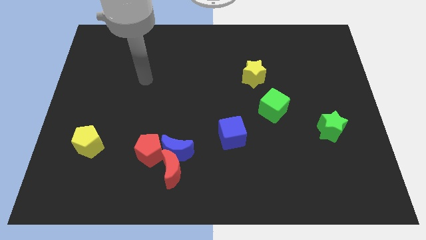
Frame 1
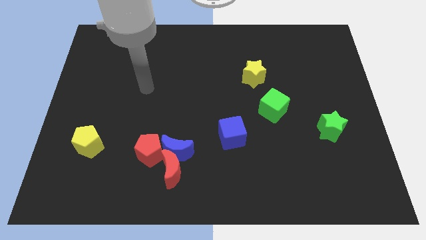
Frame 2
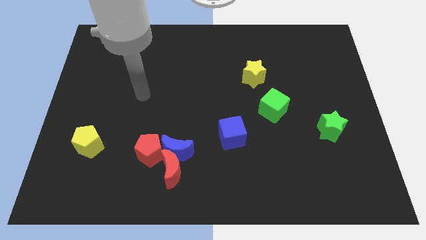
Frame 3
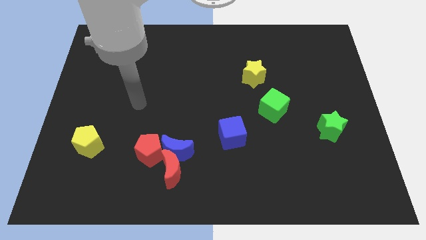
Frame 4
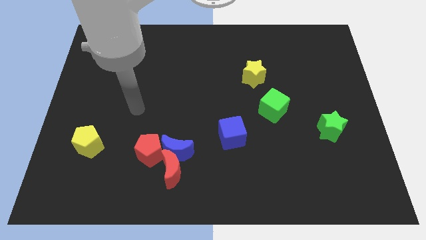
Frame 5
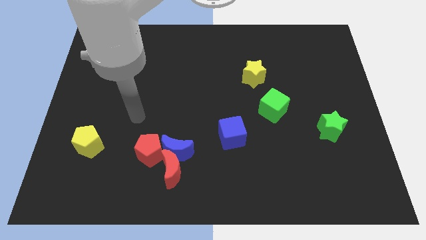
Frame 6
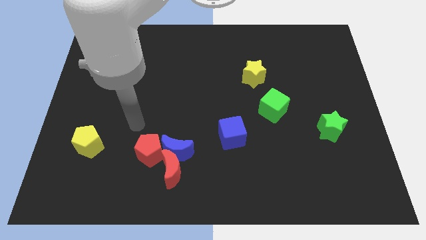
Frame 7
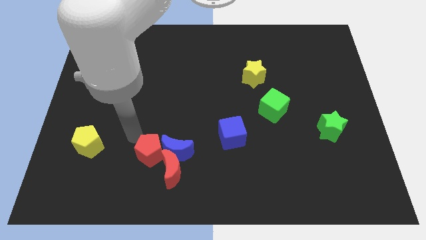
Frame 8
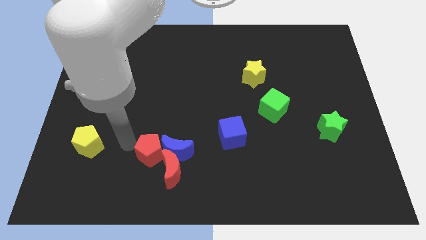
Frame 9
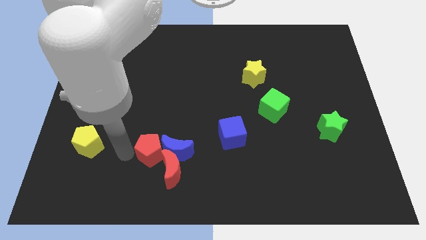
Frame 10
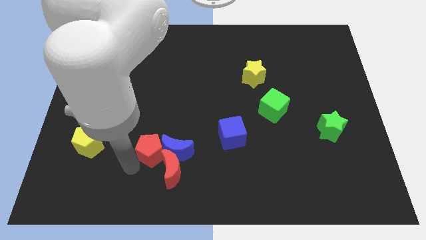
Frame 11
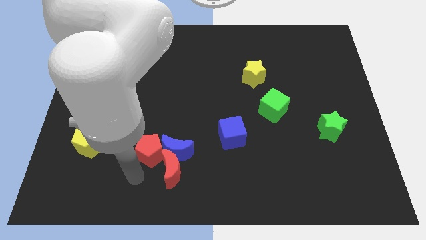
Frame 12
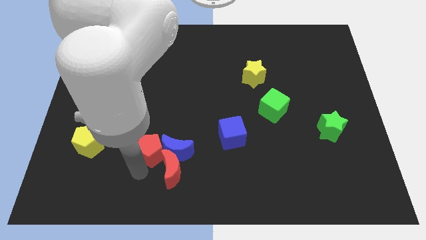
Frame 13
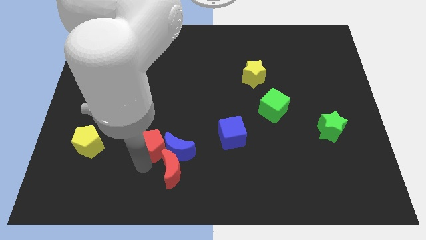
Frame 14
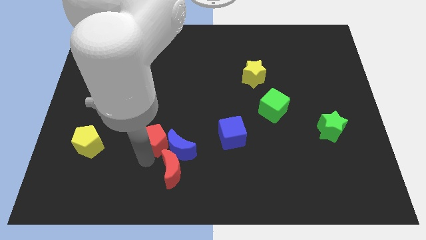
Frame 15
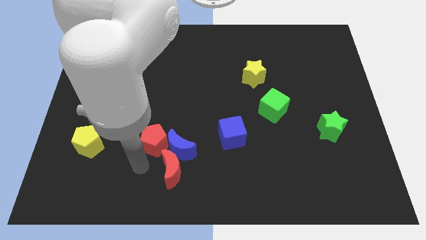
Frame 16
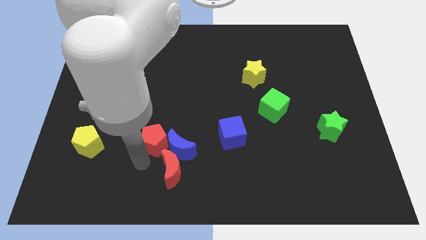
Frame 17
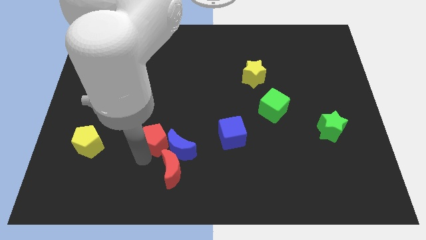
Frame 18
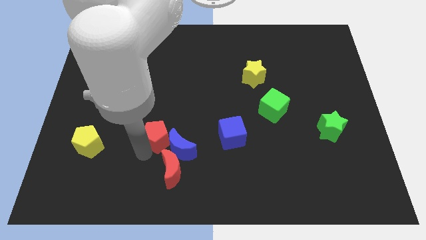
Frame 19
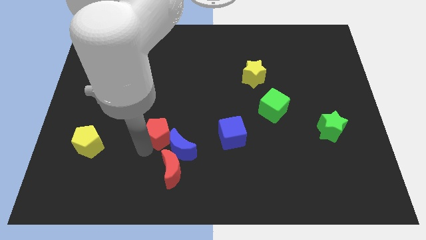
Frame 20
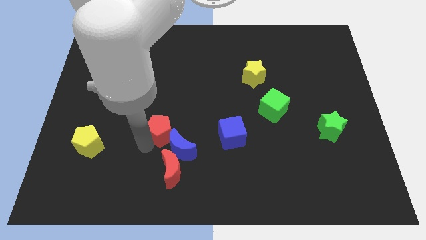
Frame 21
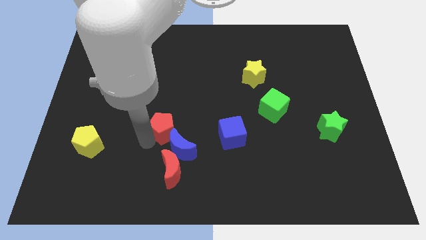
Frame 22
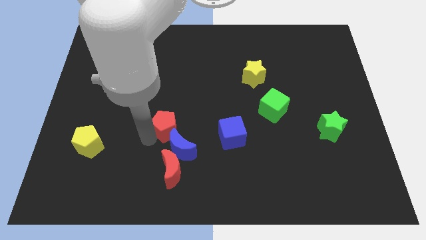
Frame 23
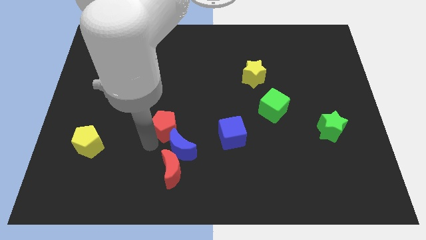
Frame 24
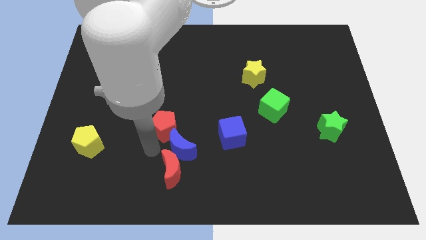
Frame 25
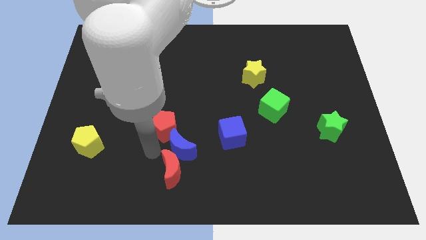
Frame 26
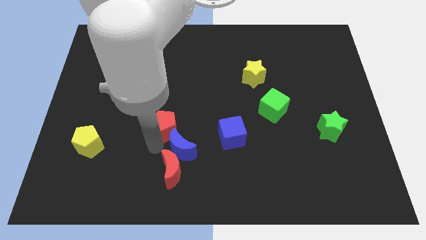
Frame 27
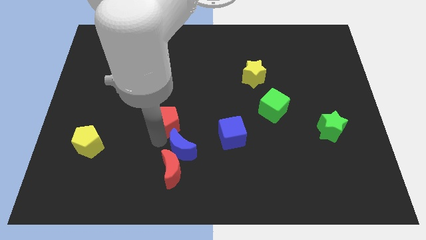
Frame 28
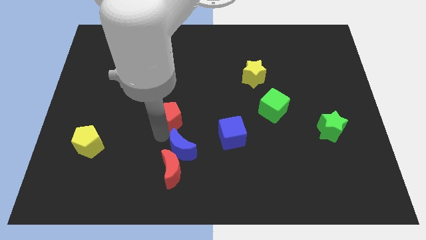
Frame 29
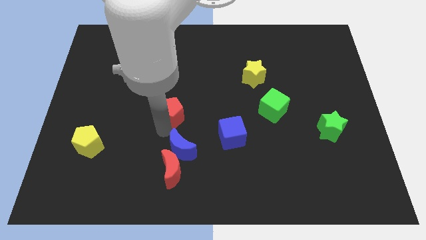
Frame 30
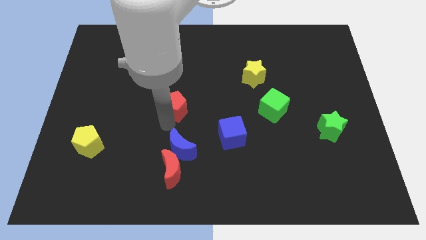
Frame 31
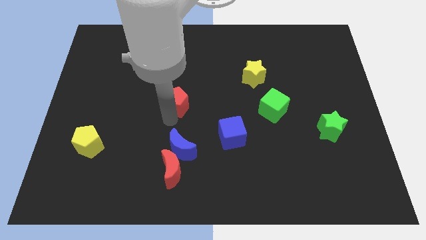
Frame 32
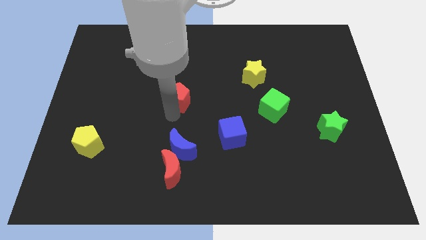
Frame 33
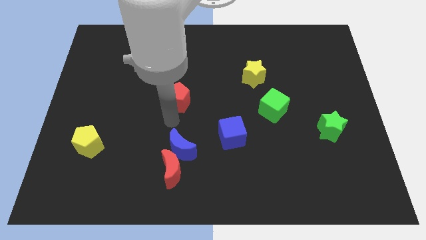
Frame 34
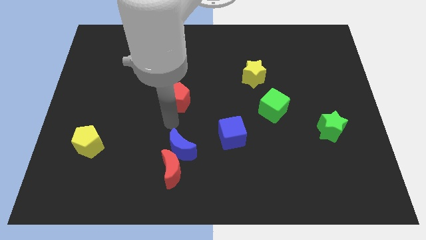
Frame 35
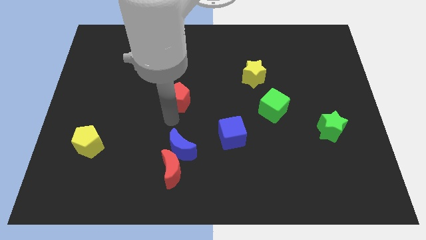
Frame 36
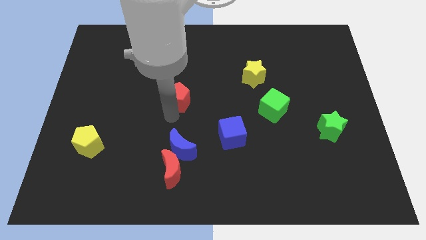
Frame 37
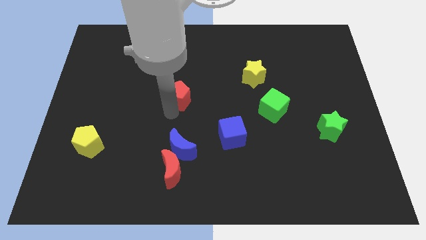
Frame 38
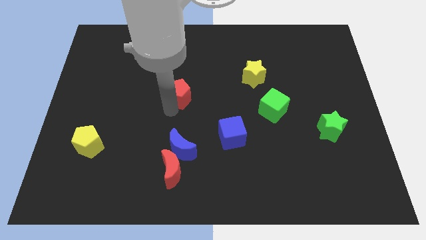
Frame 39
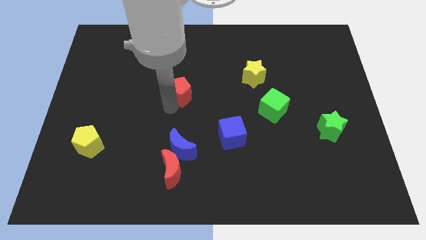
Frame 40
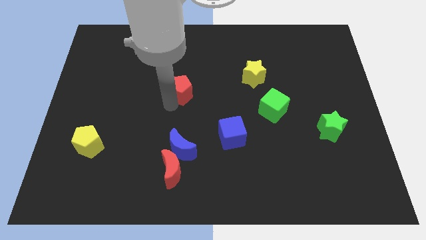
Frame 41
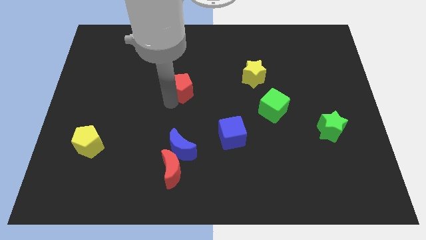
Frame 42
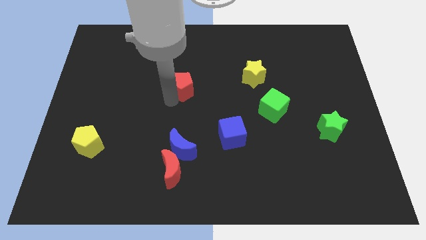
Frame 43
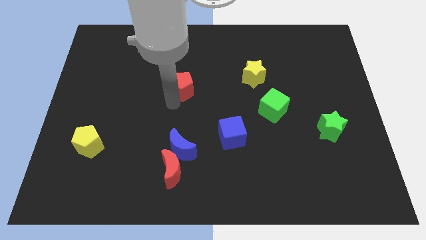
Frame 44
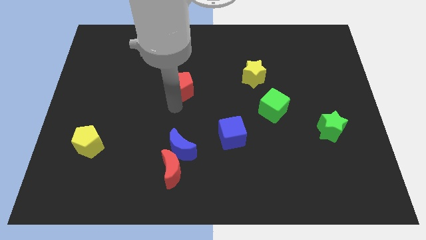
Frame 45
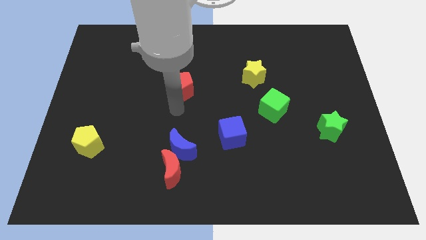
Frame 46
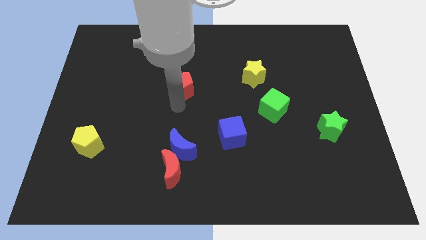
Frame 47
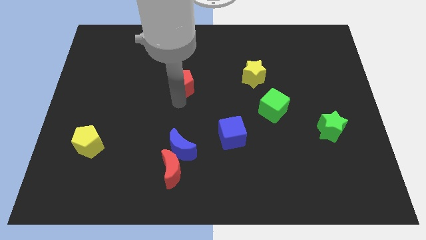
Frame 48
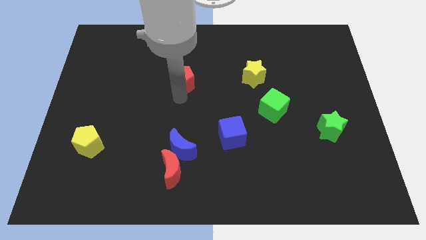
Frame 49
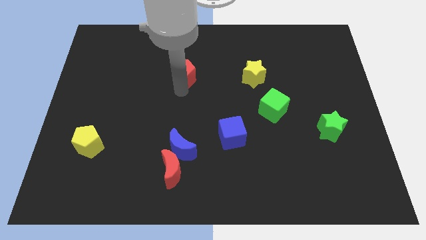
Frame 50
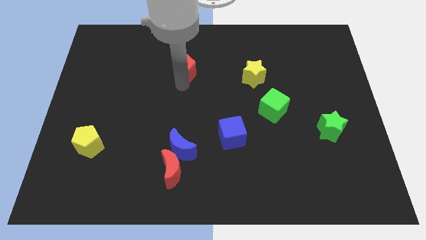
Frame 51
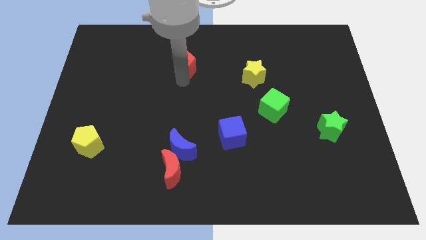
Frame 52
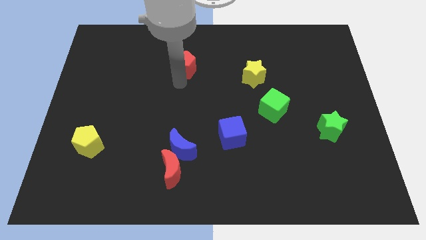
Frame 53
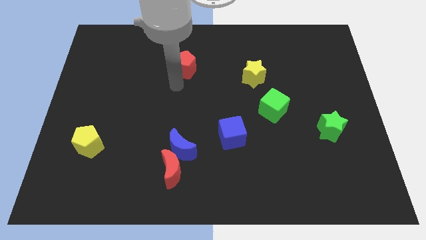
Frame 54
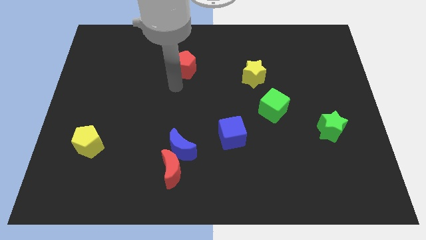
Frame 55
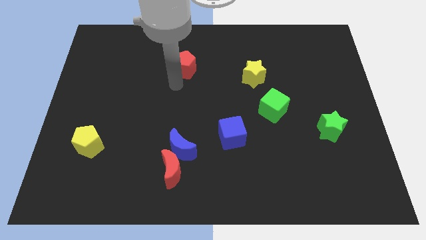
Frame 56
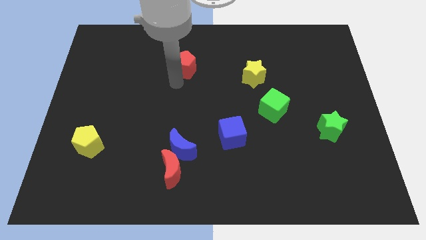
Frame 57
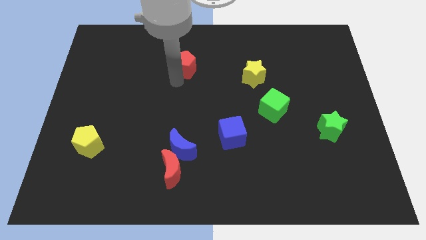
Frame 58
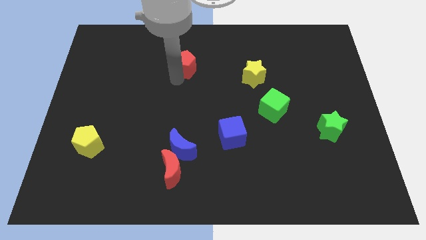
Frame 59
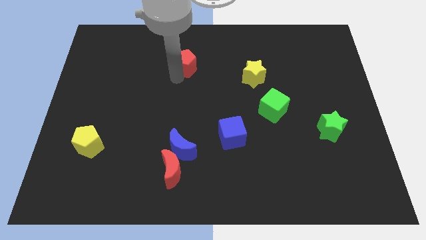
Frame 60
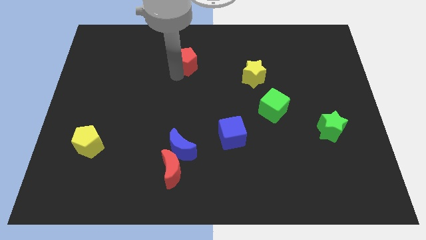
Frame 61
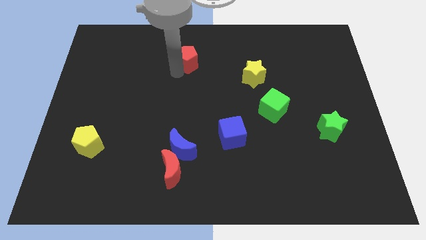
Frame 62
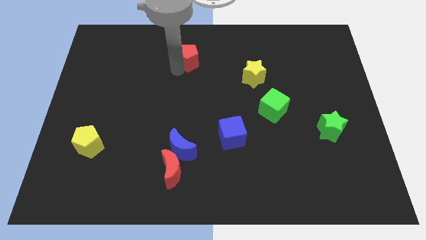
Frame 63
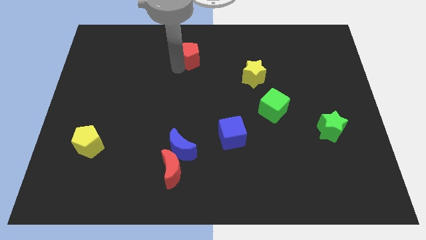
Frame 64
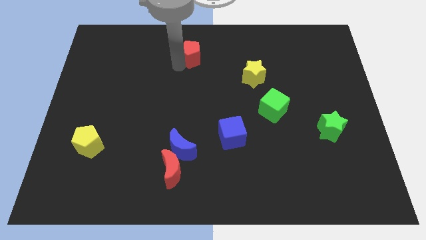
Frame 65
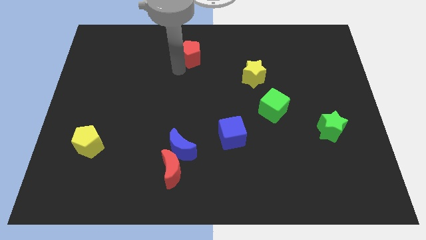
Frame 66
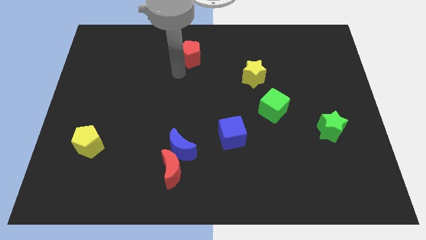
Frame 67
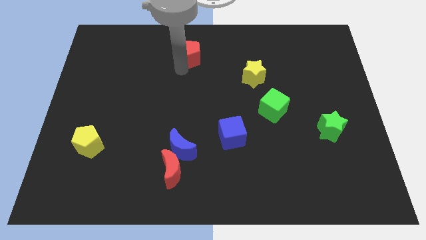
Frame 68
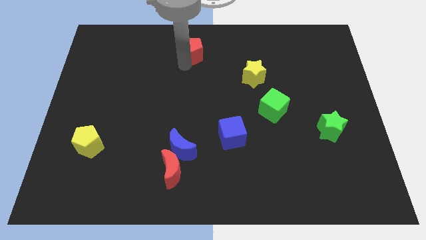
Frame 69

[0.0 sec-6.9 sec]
slide the red pentagon to the top
